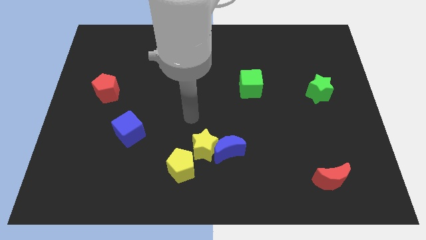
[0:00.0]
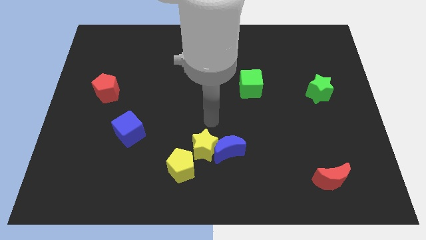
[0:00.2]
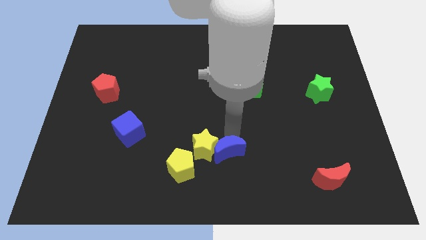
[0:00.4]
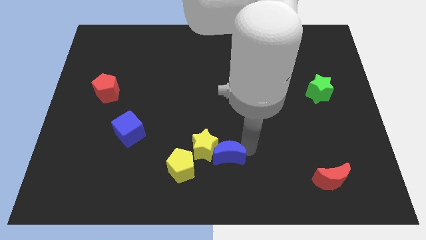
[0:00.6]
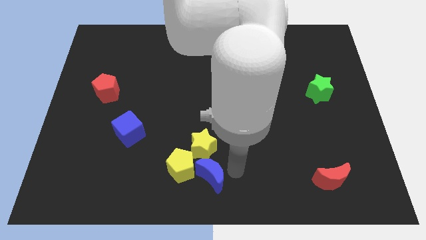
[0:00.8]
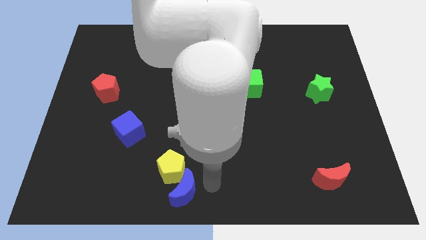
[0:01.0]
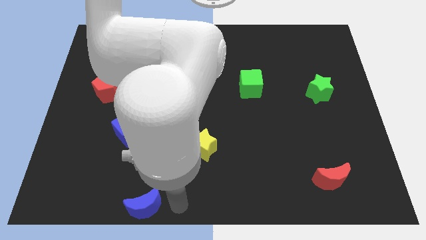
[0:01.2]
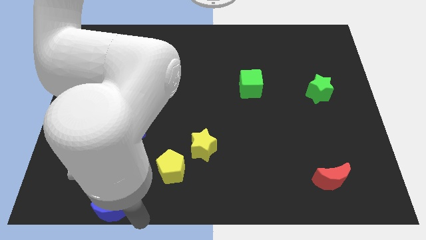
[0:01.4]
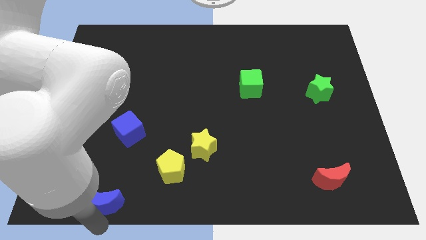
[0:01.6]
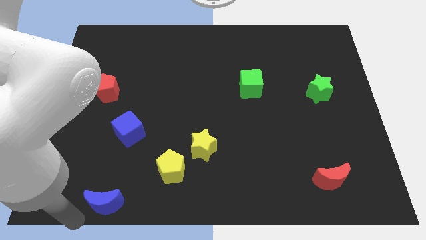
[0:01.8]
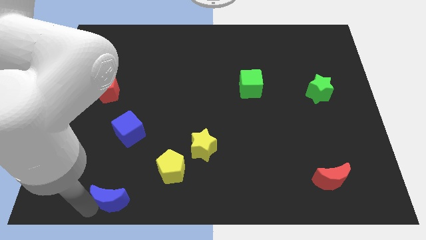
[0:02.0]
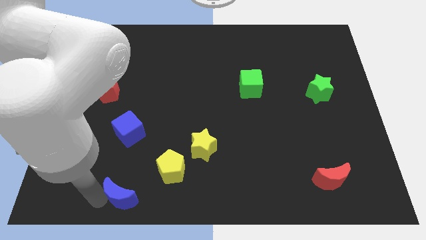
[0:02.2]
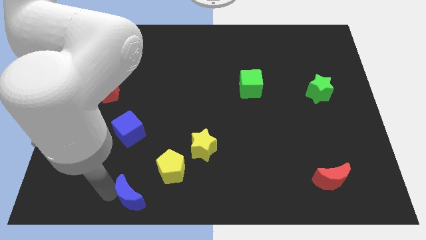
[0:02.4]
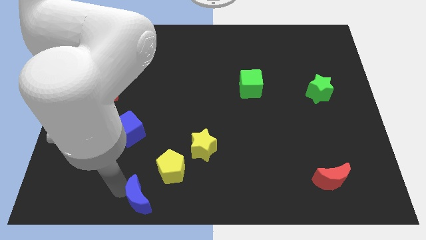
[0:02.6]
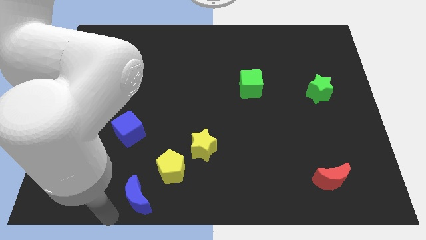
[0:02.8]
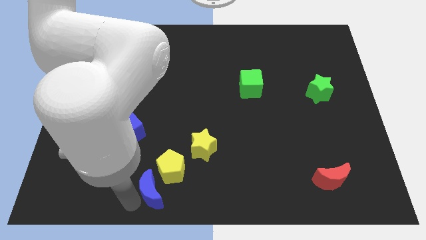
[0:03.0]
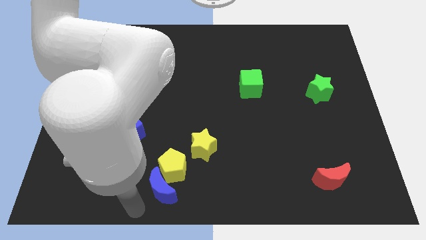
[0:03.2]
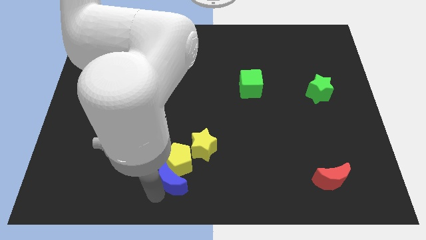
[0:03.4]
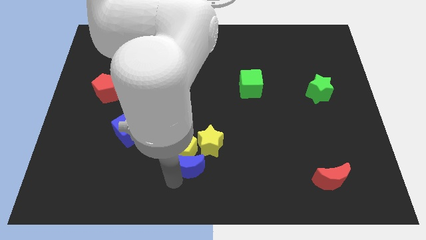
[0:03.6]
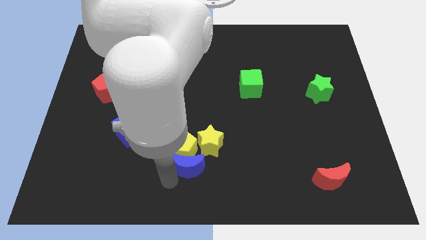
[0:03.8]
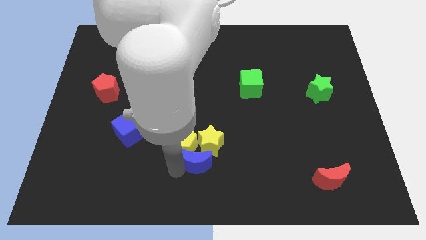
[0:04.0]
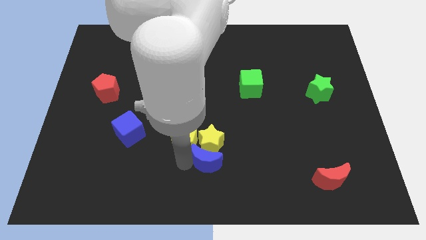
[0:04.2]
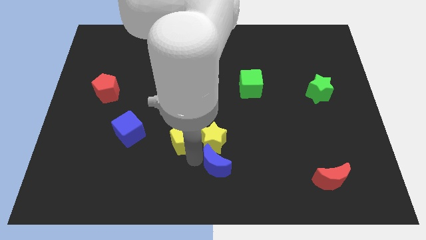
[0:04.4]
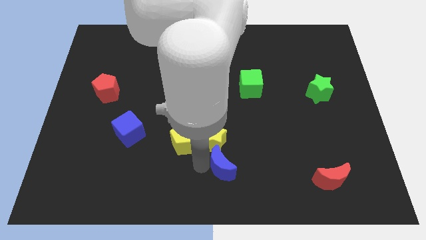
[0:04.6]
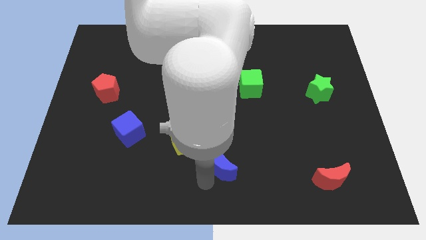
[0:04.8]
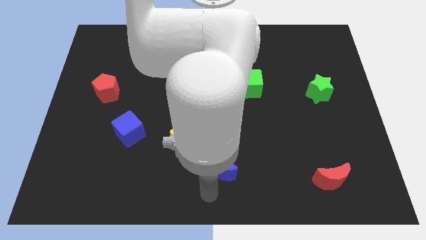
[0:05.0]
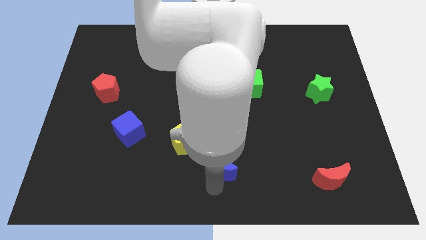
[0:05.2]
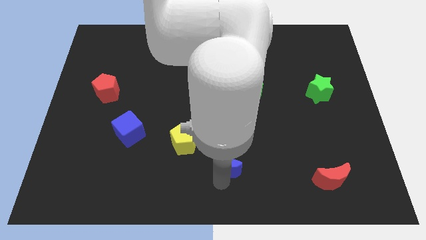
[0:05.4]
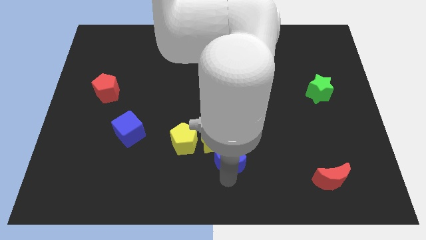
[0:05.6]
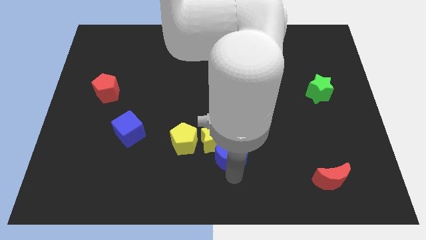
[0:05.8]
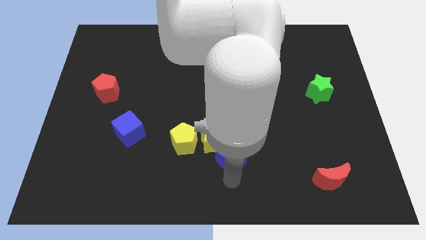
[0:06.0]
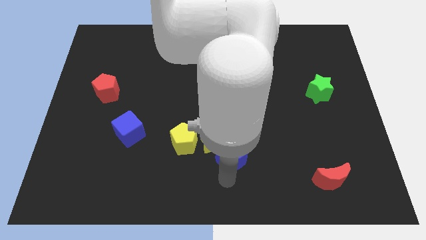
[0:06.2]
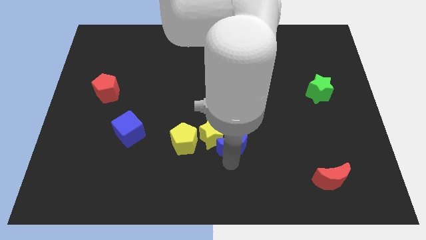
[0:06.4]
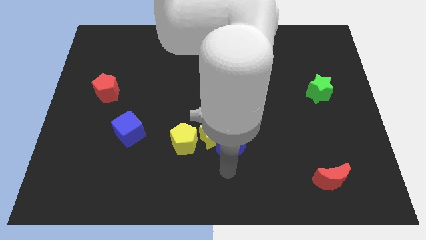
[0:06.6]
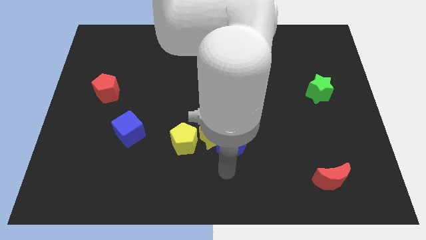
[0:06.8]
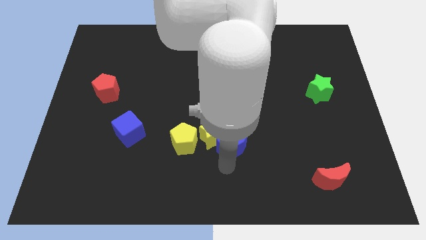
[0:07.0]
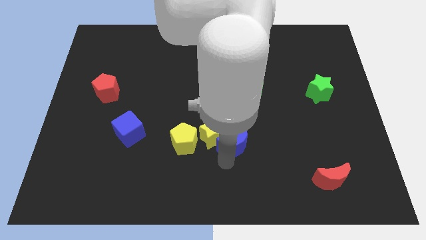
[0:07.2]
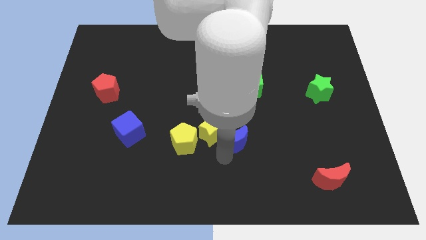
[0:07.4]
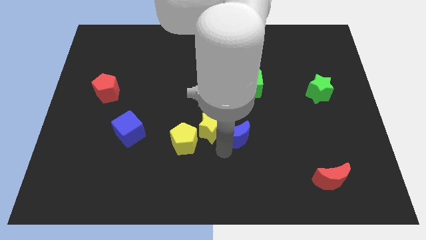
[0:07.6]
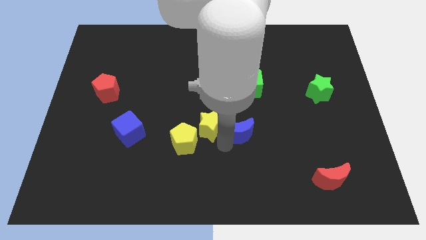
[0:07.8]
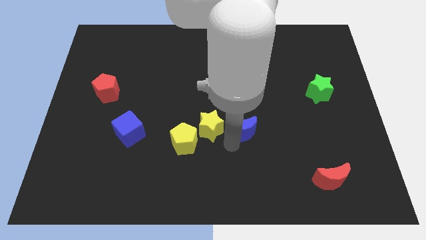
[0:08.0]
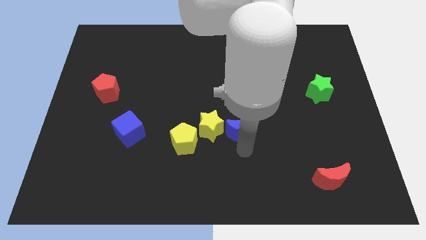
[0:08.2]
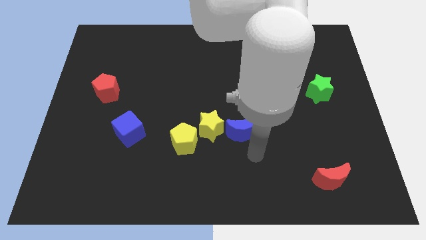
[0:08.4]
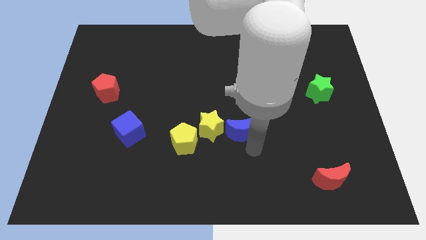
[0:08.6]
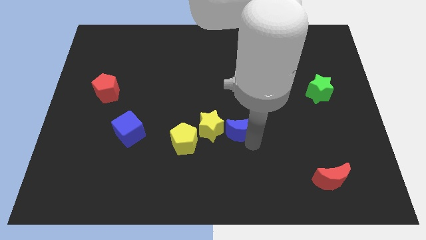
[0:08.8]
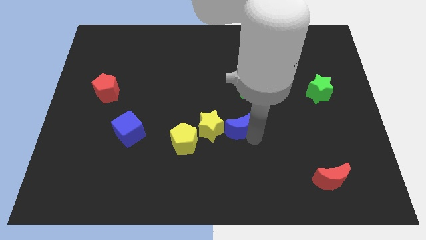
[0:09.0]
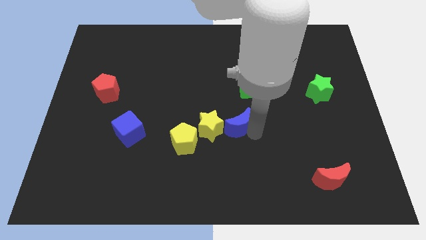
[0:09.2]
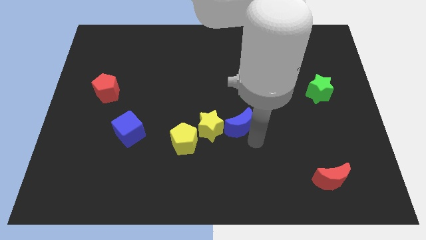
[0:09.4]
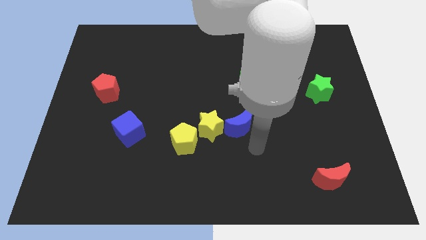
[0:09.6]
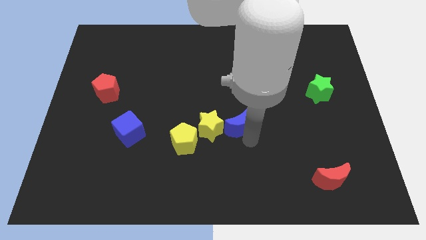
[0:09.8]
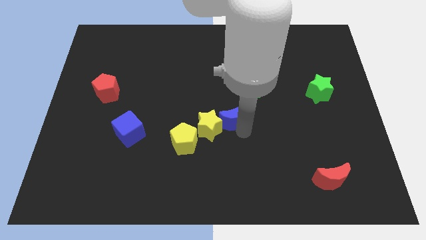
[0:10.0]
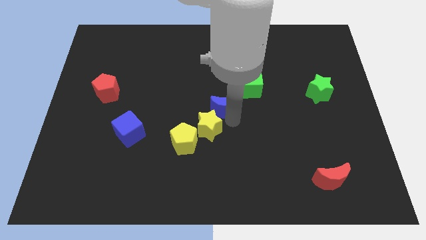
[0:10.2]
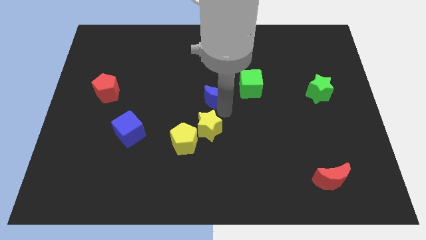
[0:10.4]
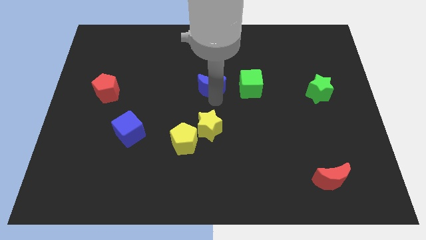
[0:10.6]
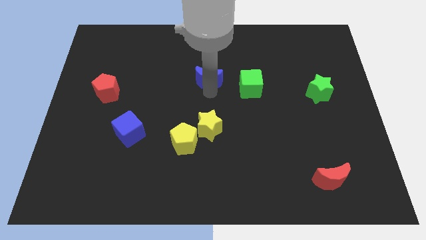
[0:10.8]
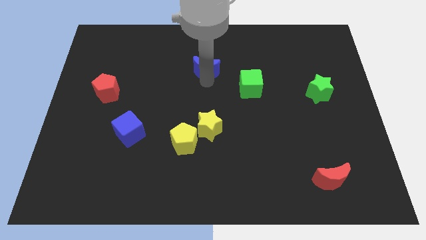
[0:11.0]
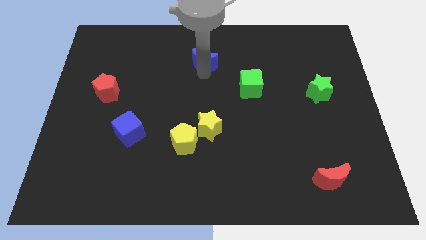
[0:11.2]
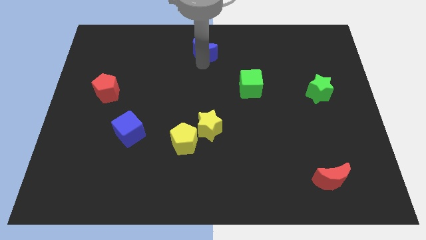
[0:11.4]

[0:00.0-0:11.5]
push the blue moon to the top side

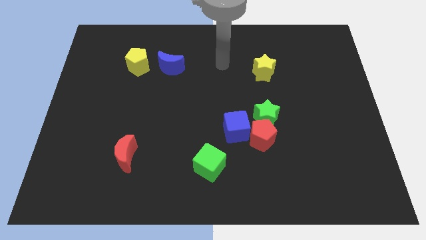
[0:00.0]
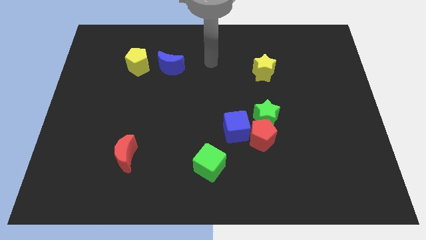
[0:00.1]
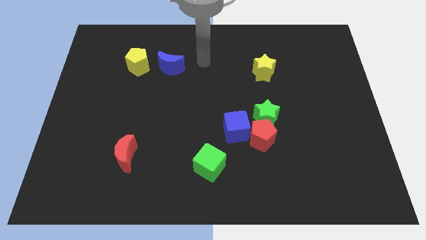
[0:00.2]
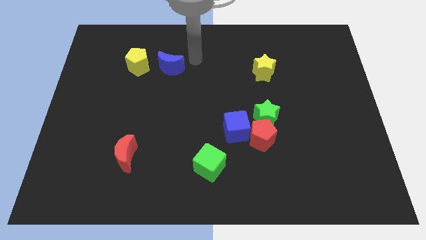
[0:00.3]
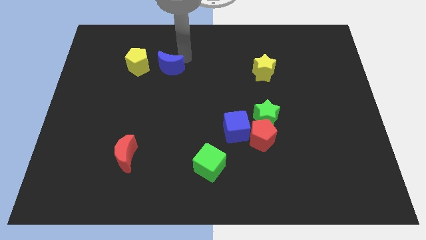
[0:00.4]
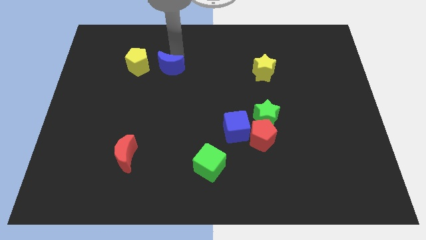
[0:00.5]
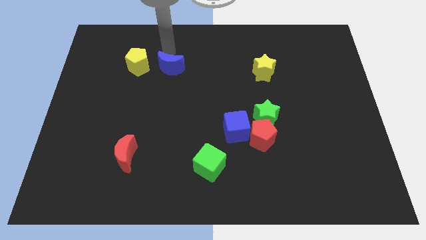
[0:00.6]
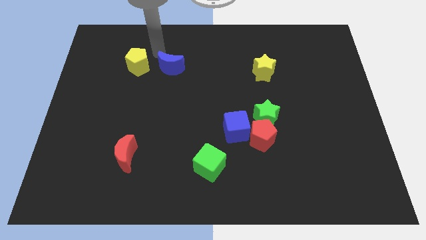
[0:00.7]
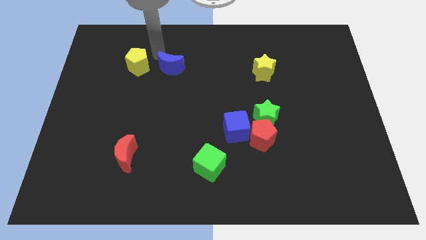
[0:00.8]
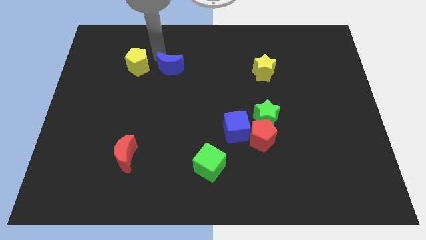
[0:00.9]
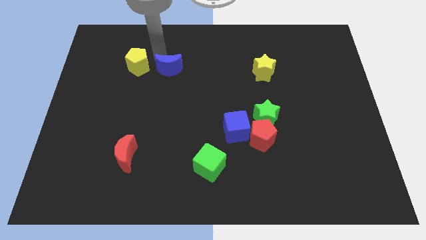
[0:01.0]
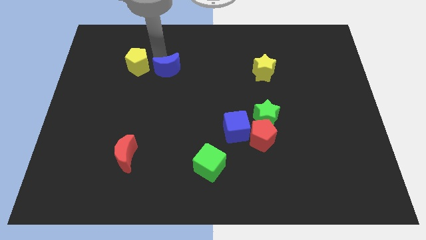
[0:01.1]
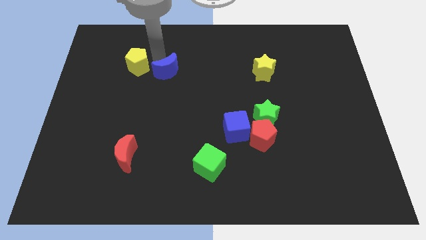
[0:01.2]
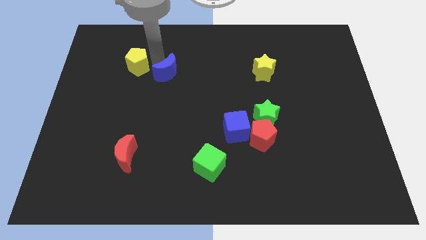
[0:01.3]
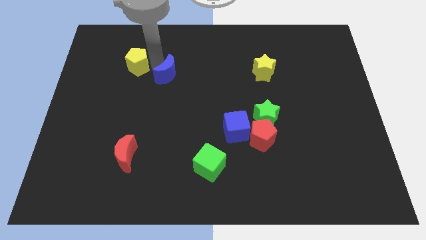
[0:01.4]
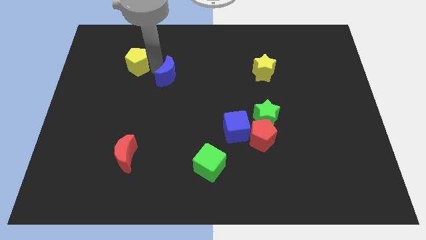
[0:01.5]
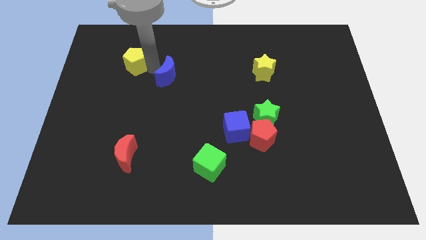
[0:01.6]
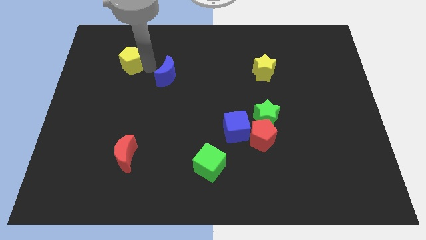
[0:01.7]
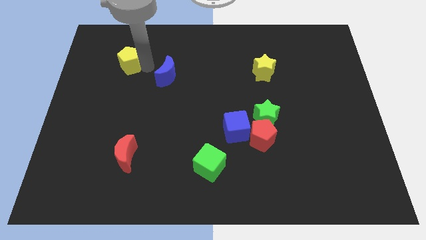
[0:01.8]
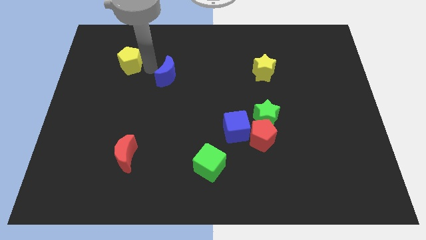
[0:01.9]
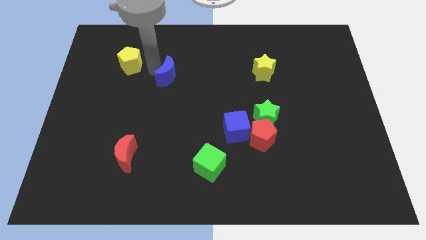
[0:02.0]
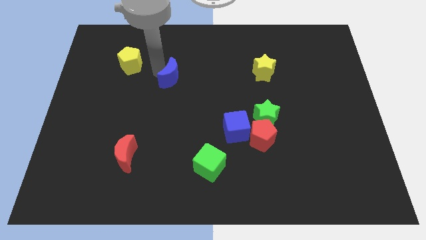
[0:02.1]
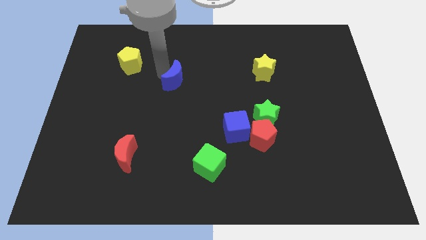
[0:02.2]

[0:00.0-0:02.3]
push the blue moon to the middle of the board
